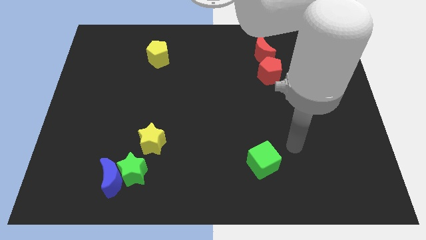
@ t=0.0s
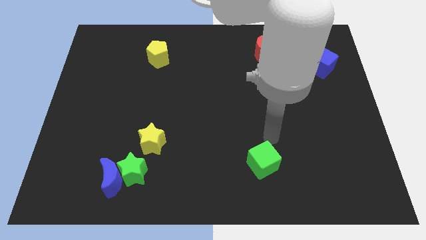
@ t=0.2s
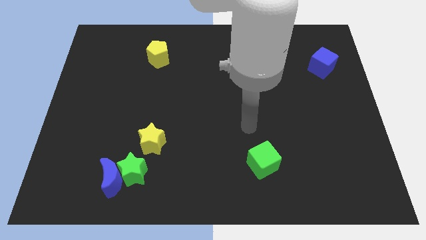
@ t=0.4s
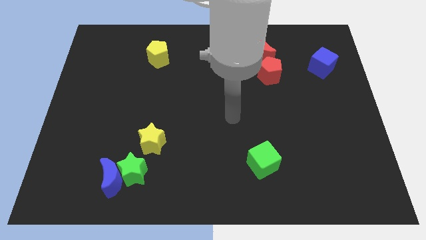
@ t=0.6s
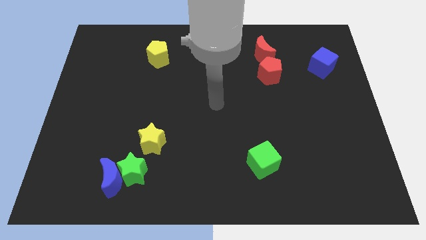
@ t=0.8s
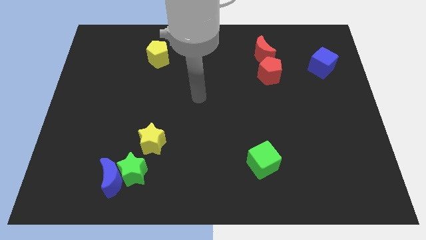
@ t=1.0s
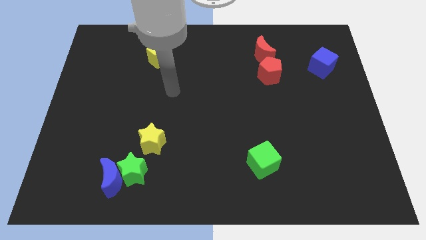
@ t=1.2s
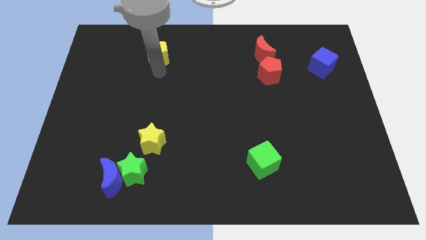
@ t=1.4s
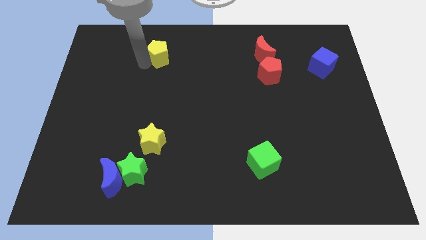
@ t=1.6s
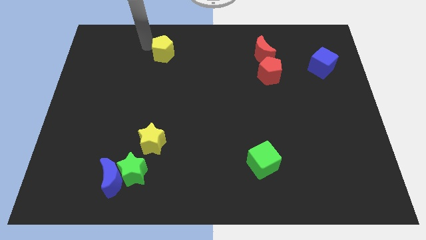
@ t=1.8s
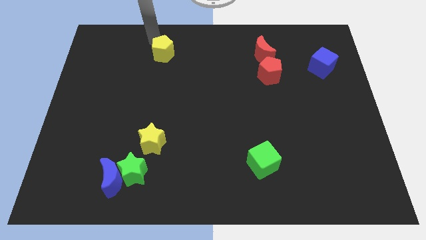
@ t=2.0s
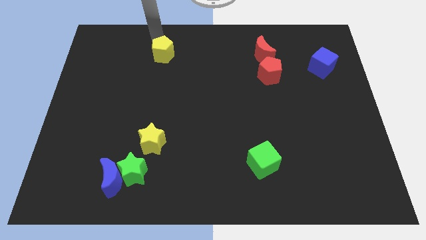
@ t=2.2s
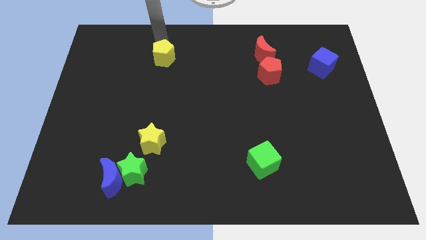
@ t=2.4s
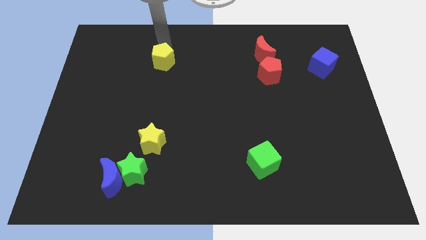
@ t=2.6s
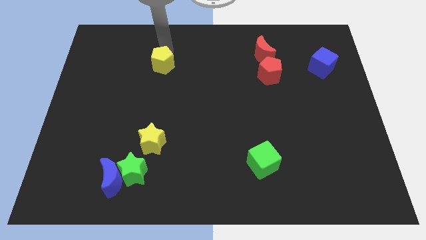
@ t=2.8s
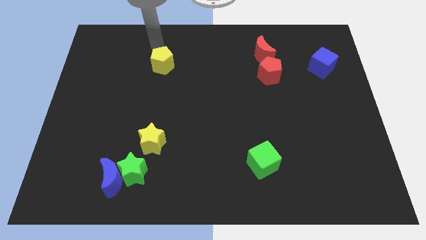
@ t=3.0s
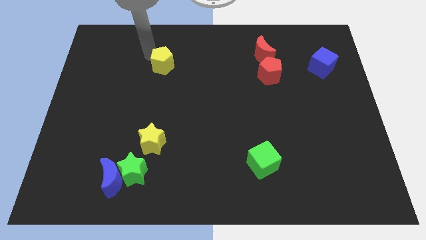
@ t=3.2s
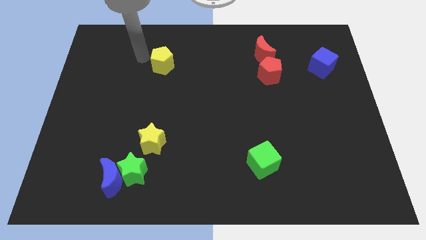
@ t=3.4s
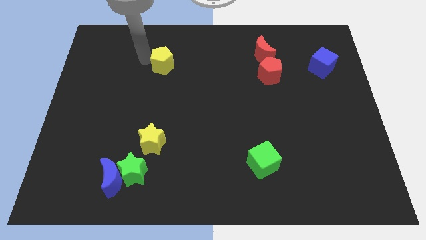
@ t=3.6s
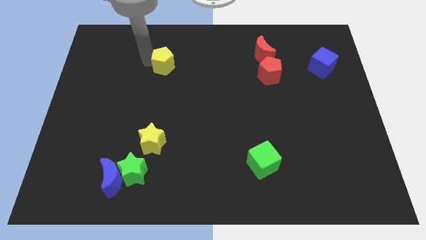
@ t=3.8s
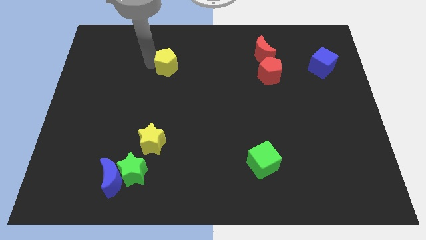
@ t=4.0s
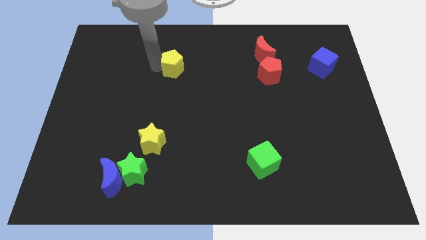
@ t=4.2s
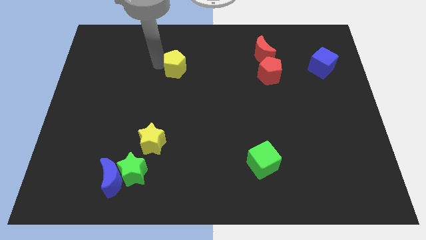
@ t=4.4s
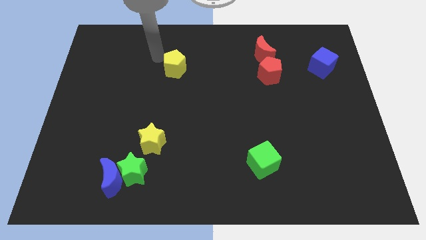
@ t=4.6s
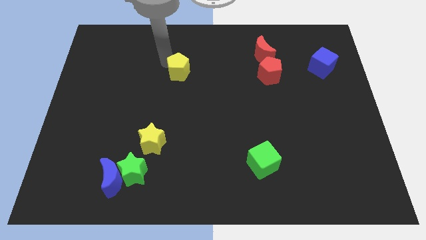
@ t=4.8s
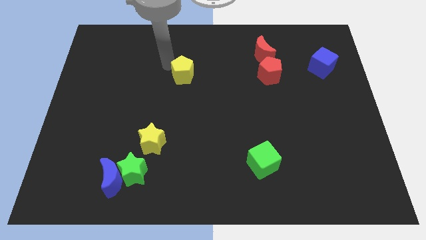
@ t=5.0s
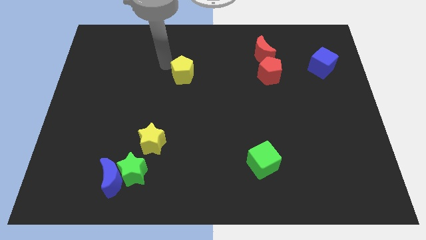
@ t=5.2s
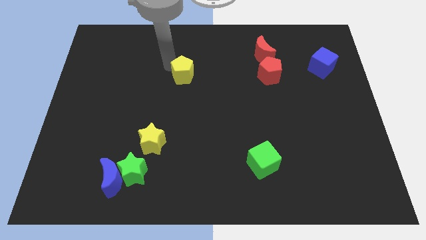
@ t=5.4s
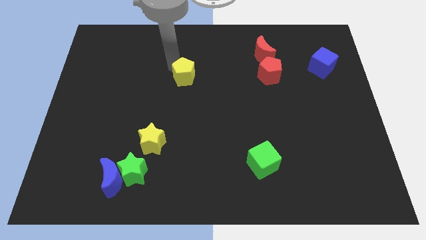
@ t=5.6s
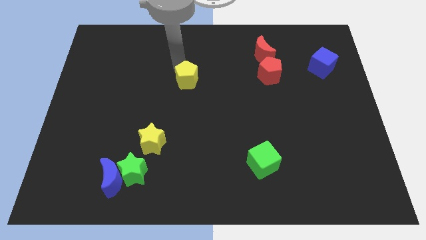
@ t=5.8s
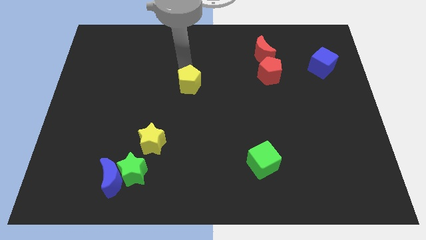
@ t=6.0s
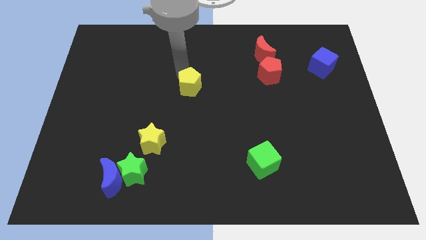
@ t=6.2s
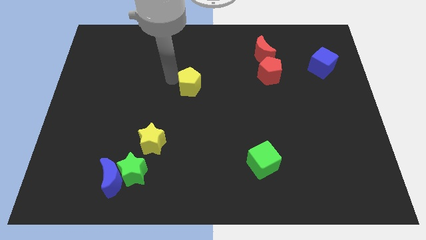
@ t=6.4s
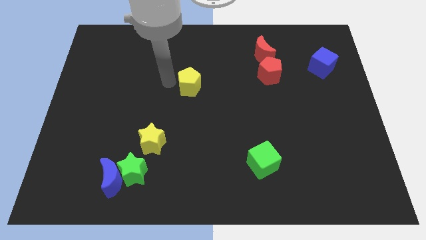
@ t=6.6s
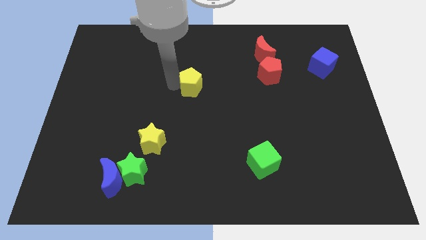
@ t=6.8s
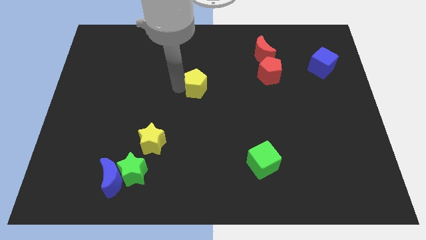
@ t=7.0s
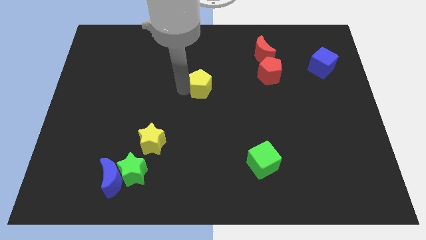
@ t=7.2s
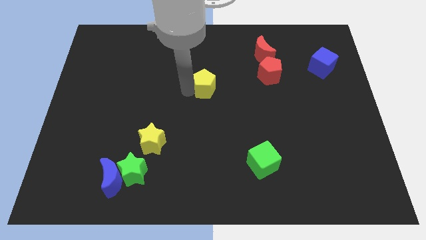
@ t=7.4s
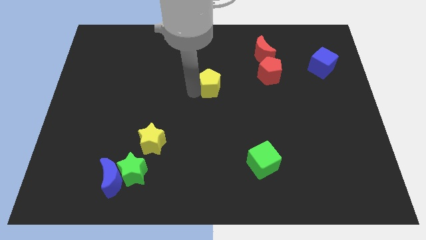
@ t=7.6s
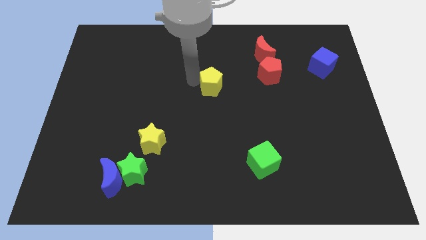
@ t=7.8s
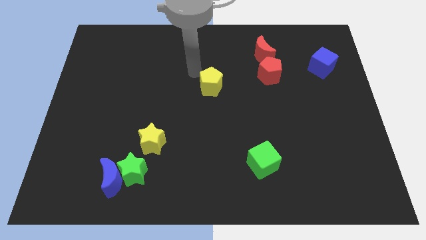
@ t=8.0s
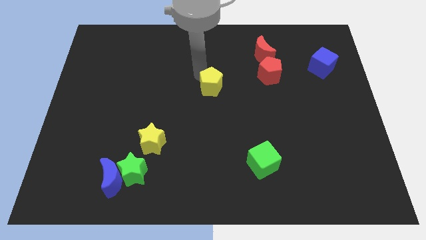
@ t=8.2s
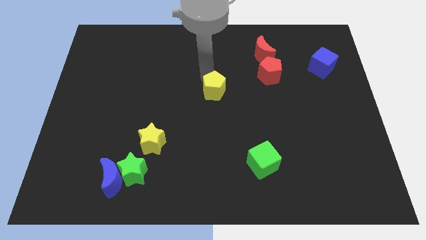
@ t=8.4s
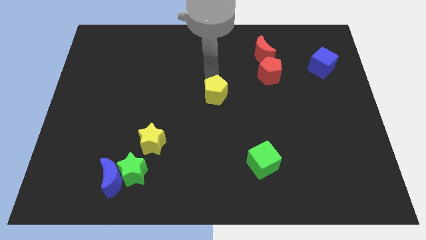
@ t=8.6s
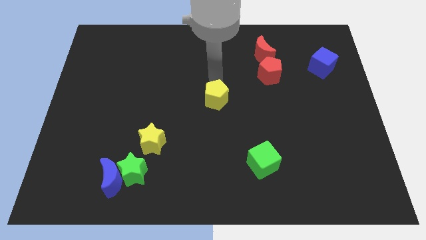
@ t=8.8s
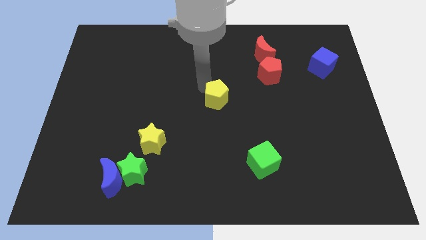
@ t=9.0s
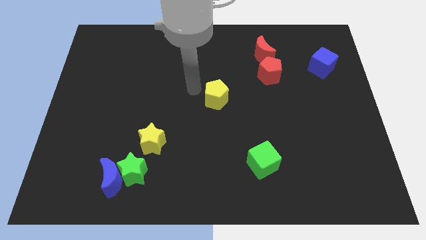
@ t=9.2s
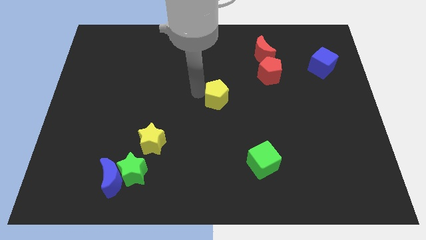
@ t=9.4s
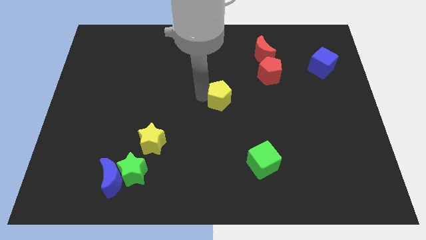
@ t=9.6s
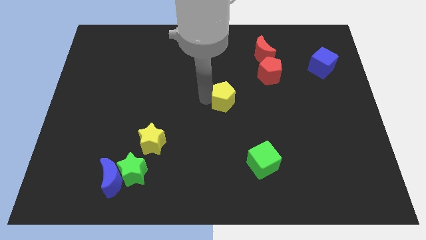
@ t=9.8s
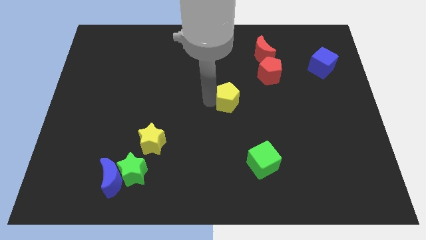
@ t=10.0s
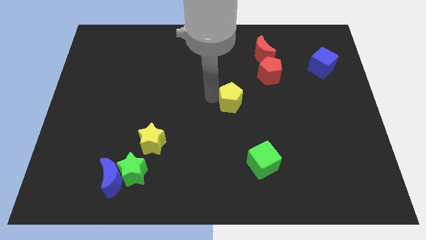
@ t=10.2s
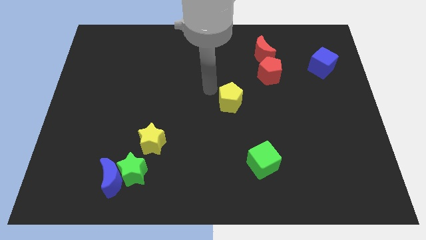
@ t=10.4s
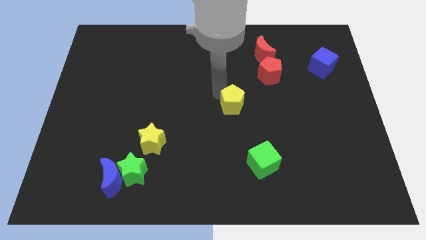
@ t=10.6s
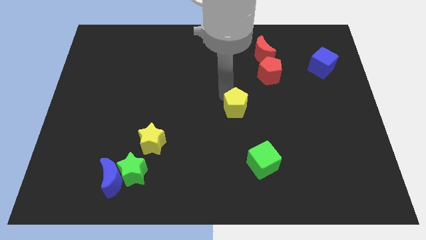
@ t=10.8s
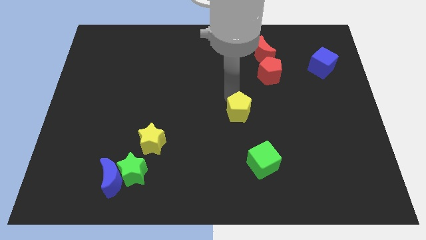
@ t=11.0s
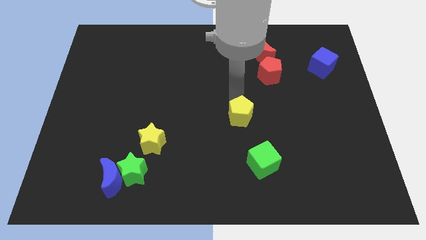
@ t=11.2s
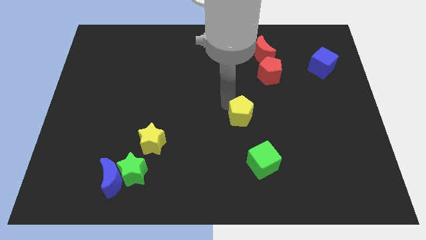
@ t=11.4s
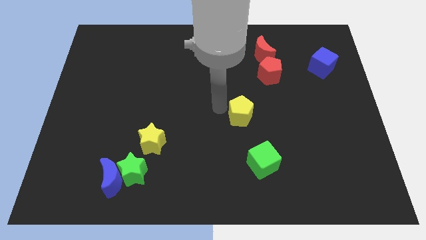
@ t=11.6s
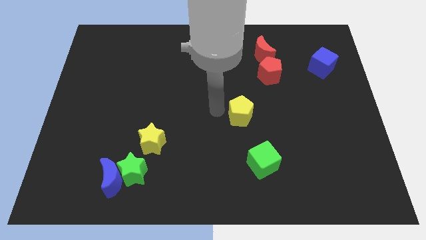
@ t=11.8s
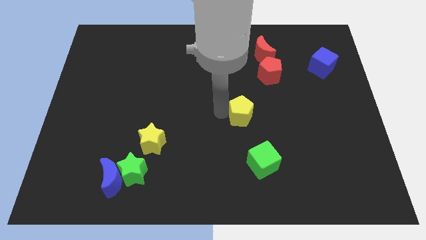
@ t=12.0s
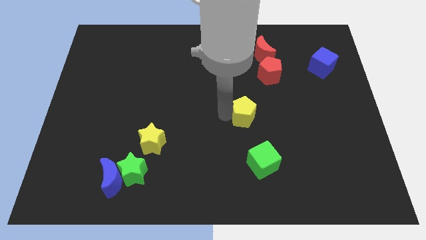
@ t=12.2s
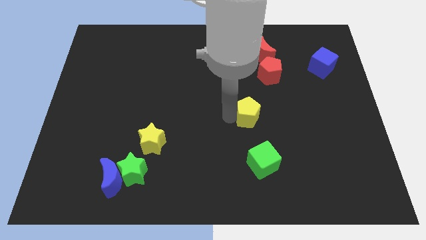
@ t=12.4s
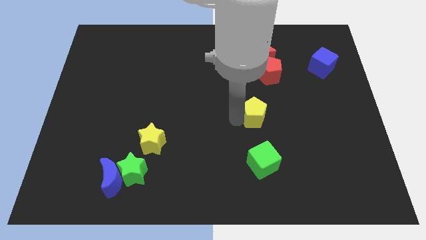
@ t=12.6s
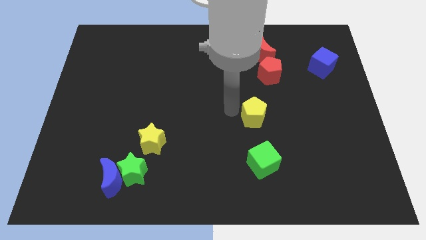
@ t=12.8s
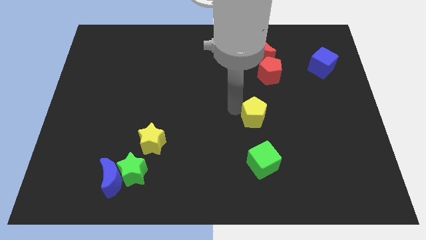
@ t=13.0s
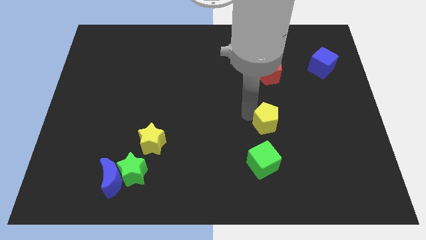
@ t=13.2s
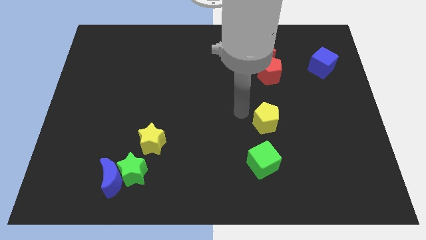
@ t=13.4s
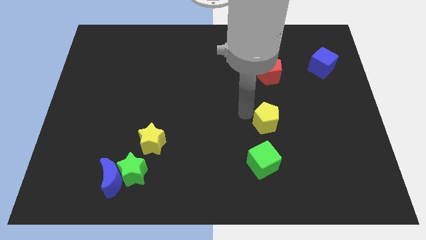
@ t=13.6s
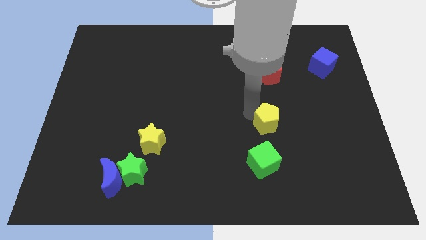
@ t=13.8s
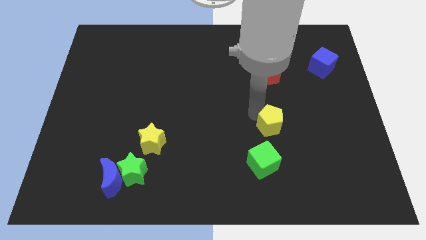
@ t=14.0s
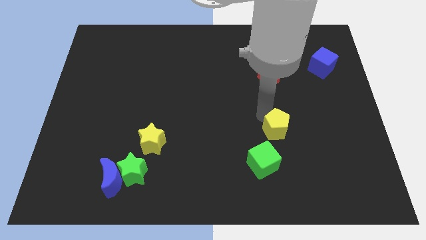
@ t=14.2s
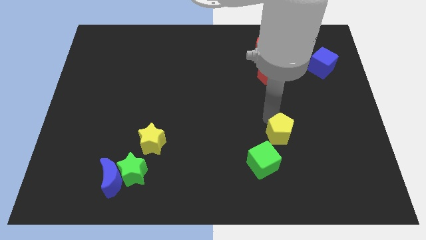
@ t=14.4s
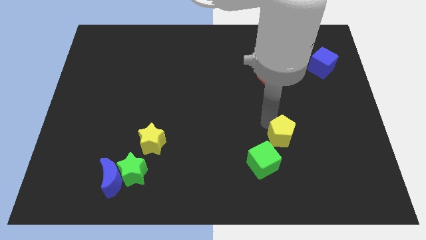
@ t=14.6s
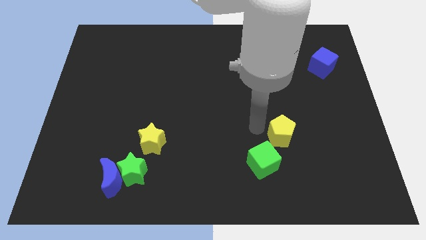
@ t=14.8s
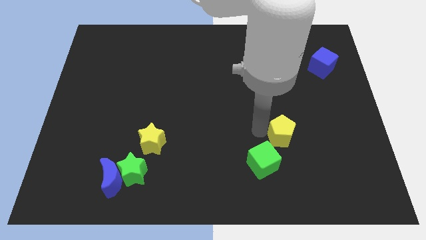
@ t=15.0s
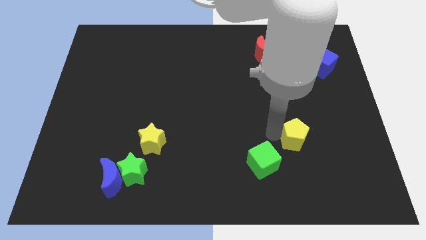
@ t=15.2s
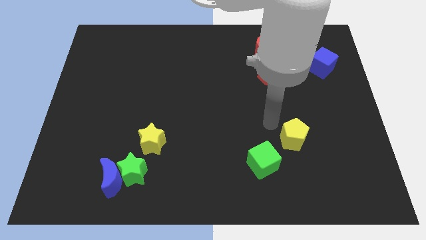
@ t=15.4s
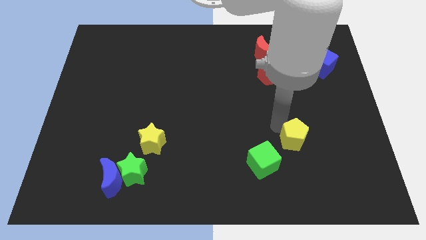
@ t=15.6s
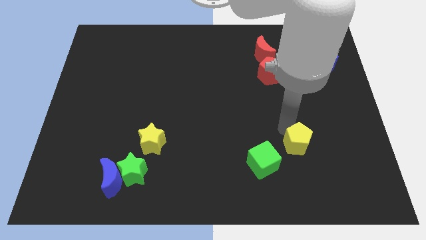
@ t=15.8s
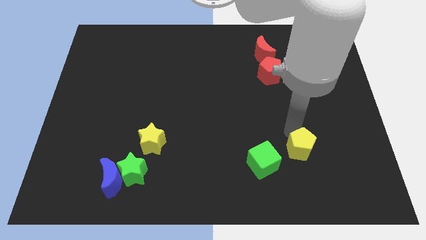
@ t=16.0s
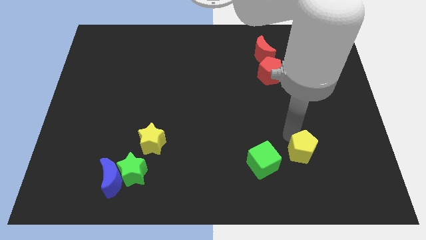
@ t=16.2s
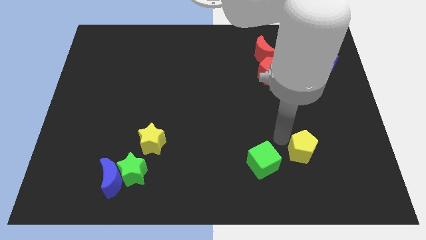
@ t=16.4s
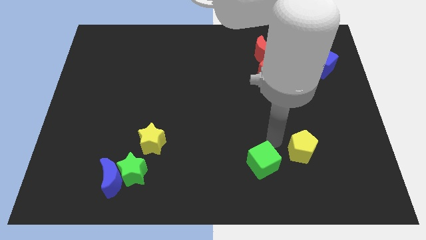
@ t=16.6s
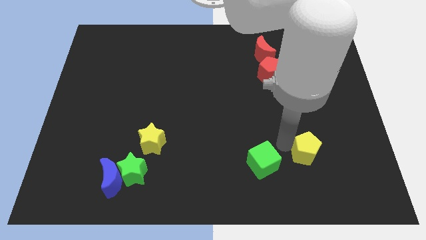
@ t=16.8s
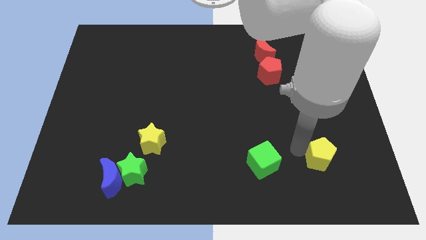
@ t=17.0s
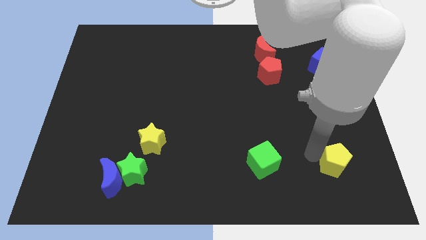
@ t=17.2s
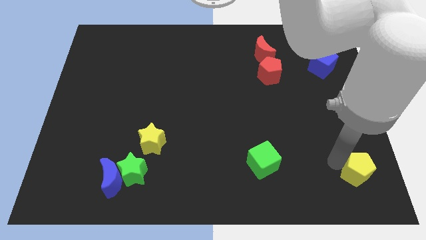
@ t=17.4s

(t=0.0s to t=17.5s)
push the yellow pentagon to the bottom right of the board
